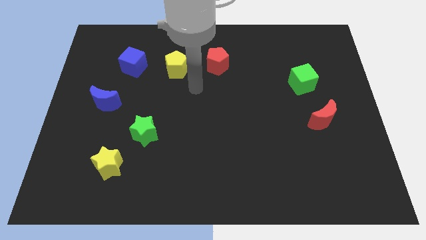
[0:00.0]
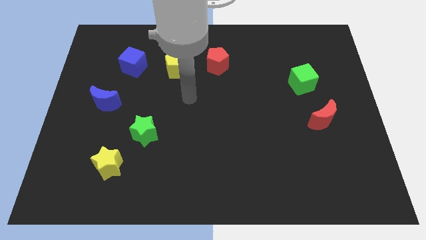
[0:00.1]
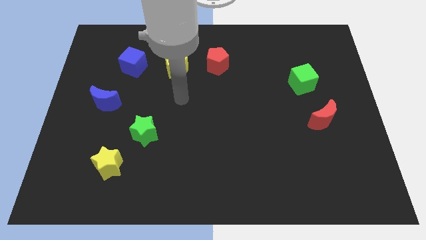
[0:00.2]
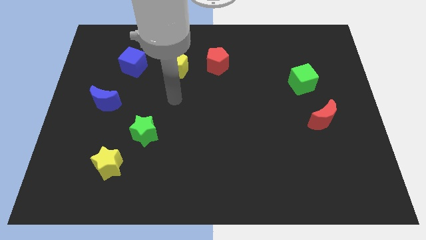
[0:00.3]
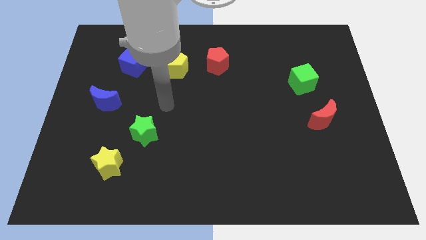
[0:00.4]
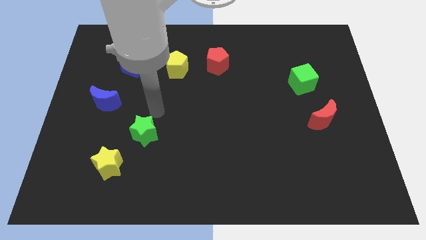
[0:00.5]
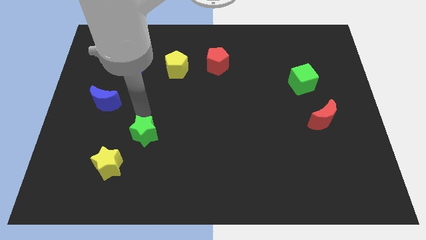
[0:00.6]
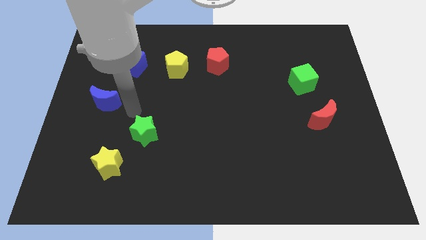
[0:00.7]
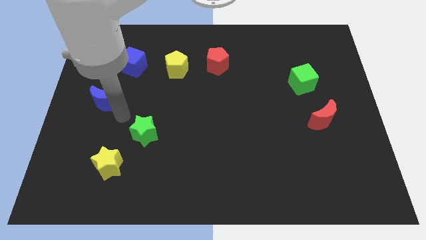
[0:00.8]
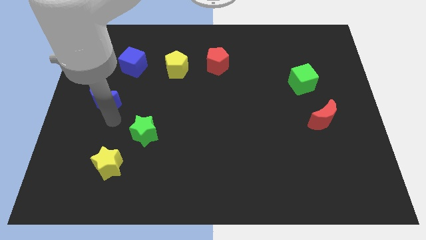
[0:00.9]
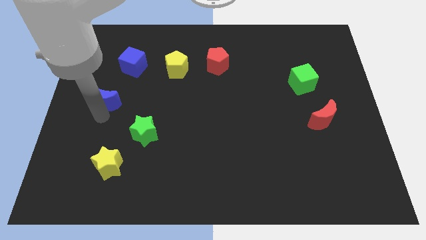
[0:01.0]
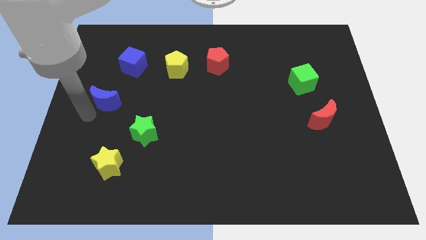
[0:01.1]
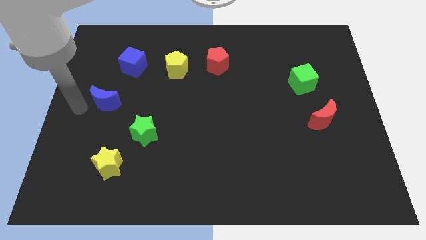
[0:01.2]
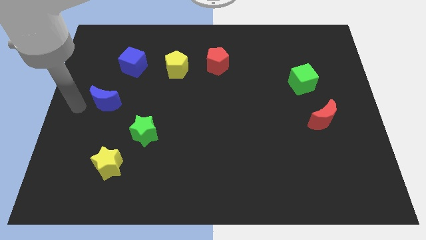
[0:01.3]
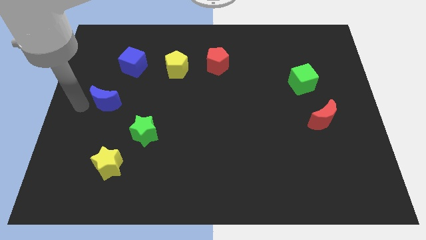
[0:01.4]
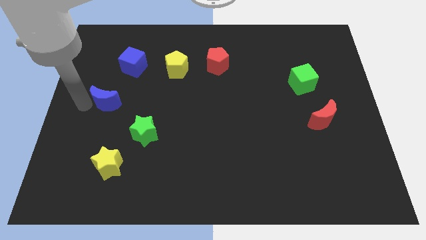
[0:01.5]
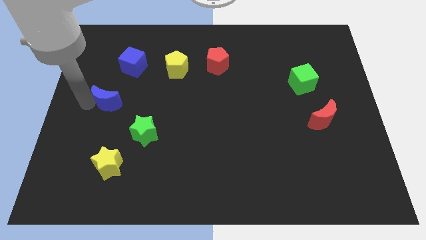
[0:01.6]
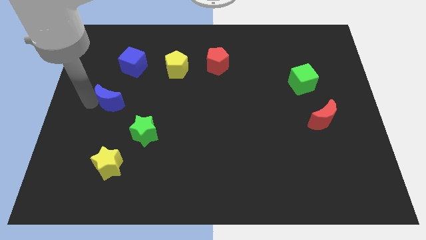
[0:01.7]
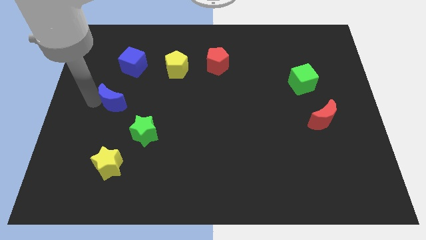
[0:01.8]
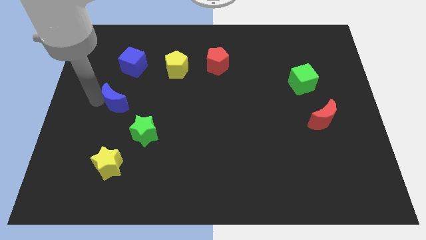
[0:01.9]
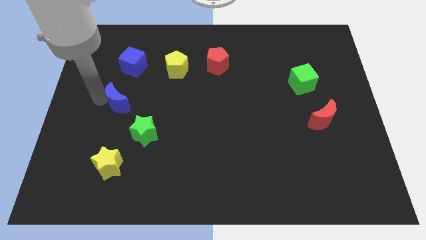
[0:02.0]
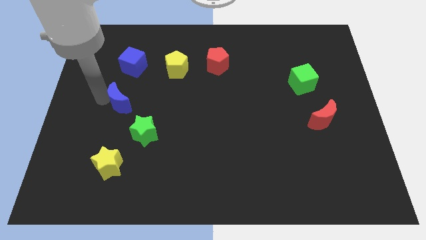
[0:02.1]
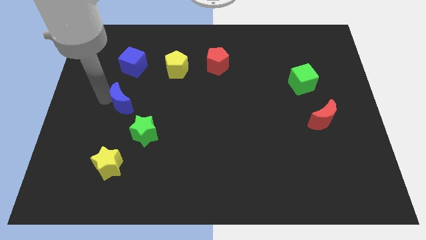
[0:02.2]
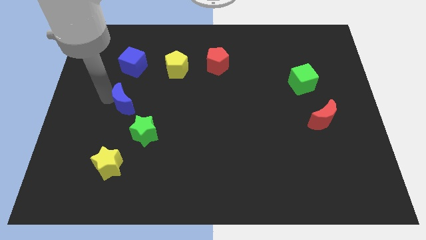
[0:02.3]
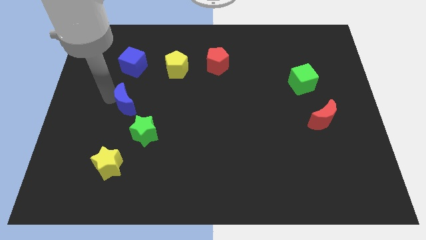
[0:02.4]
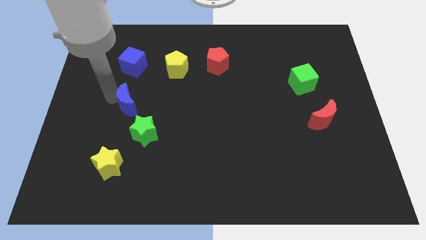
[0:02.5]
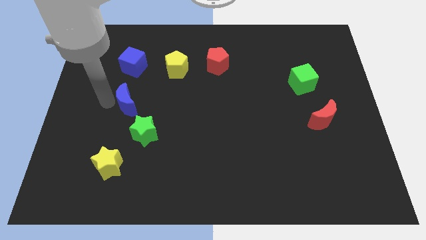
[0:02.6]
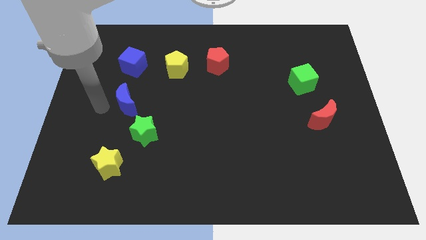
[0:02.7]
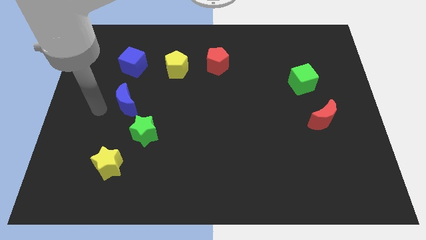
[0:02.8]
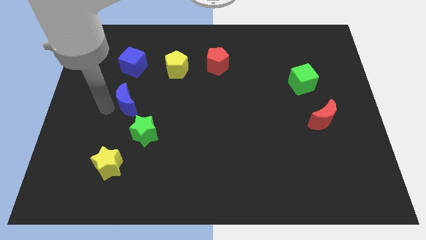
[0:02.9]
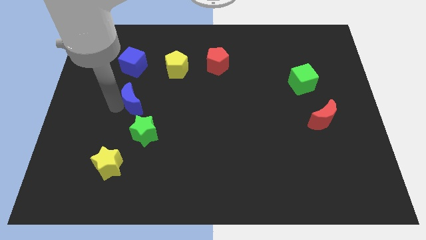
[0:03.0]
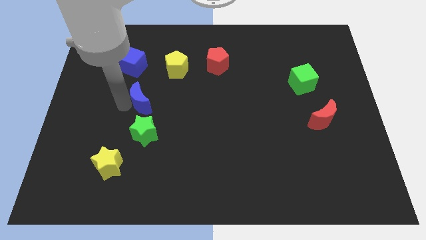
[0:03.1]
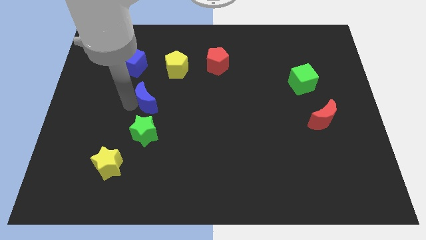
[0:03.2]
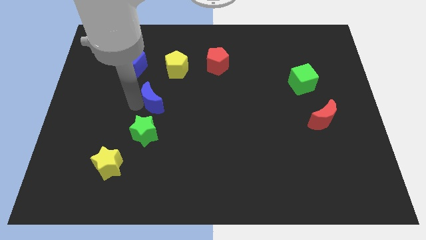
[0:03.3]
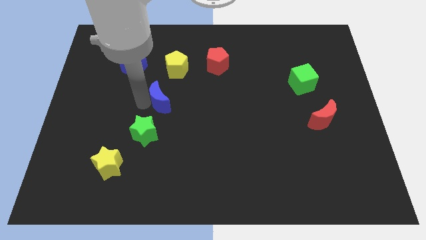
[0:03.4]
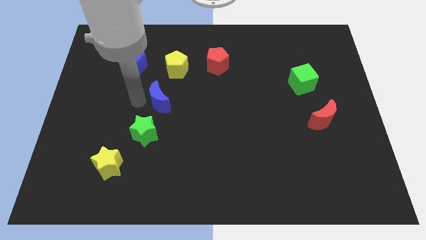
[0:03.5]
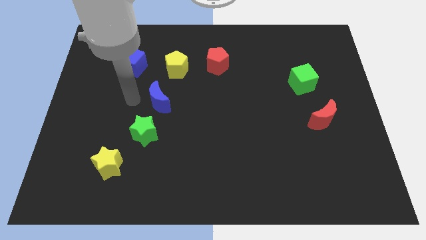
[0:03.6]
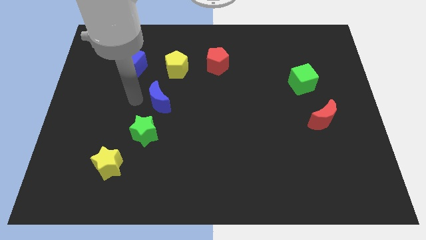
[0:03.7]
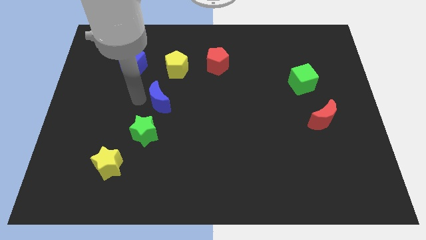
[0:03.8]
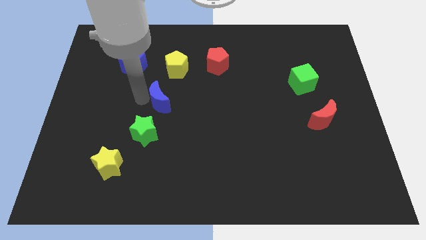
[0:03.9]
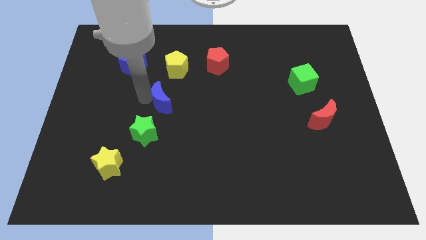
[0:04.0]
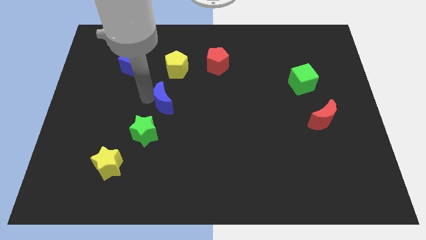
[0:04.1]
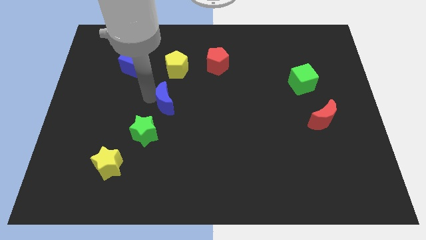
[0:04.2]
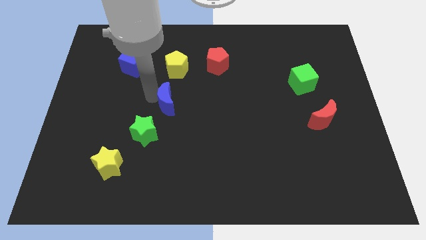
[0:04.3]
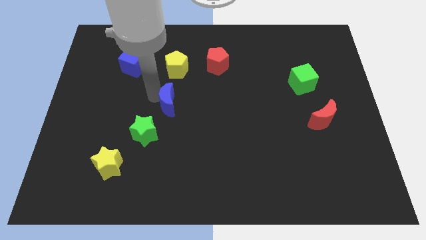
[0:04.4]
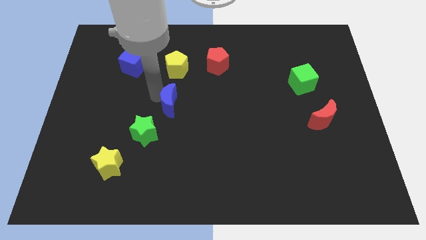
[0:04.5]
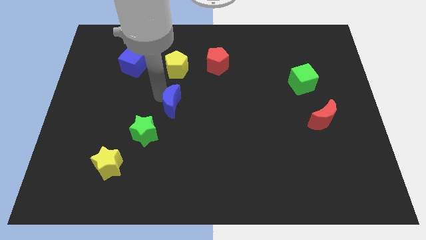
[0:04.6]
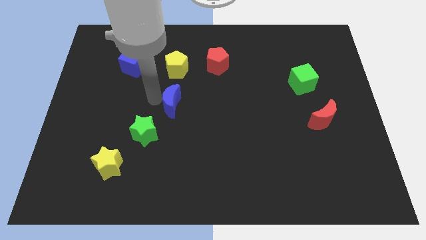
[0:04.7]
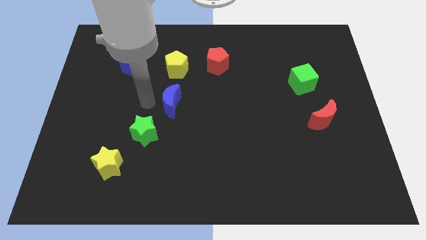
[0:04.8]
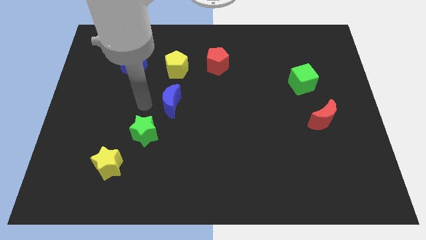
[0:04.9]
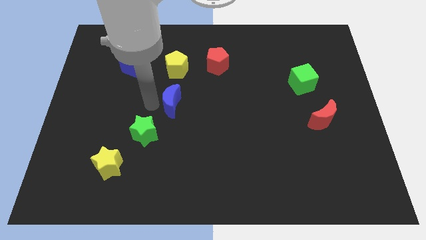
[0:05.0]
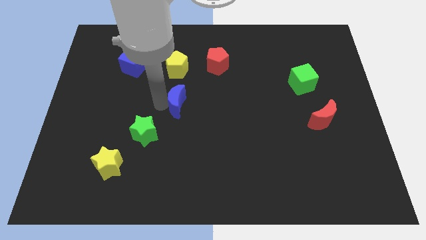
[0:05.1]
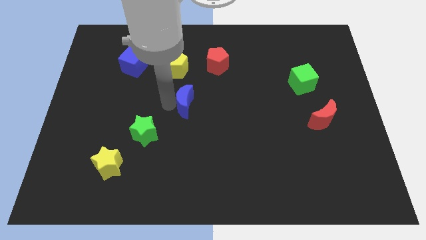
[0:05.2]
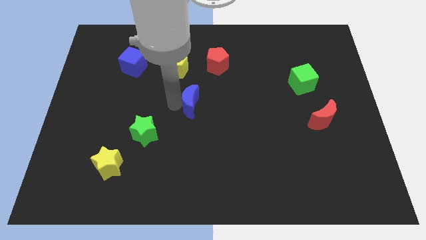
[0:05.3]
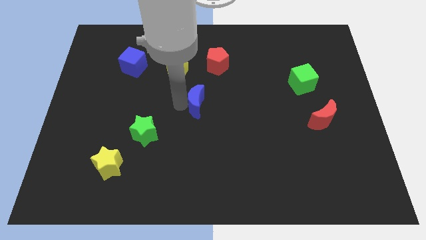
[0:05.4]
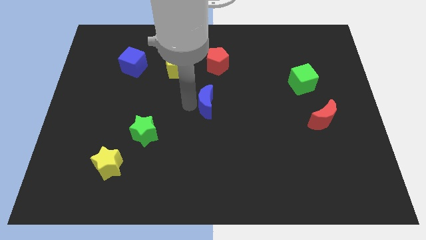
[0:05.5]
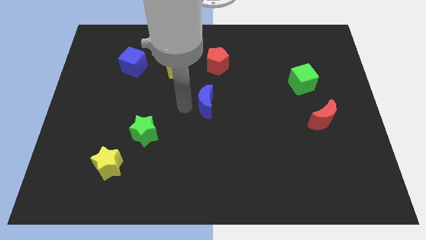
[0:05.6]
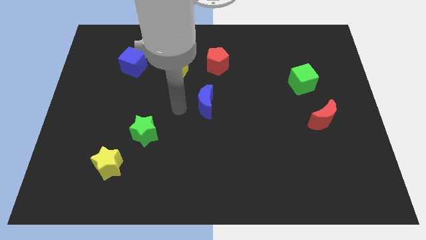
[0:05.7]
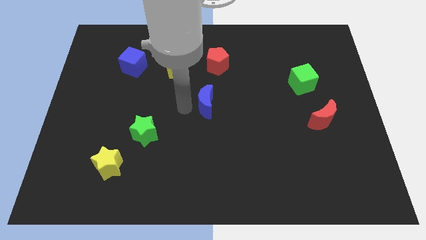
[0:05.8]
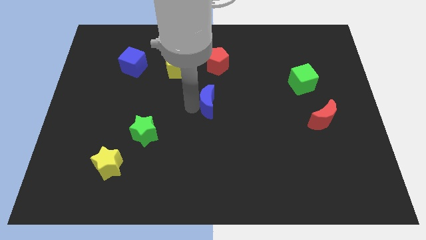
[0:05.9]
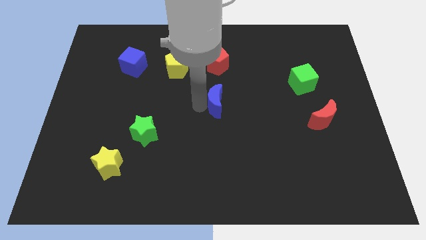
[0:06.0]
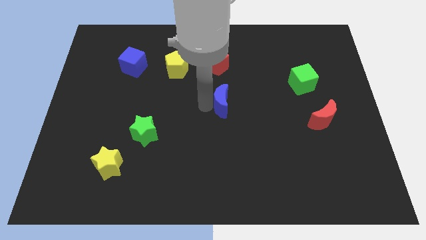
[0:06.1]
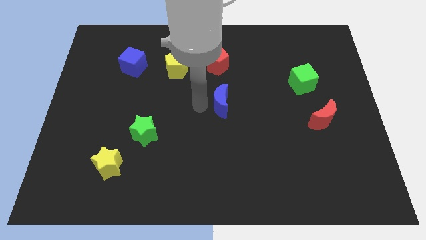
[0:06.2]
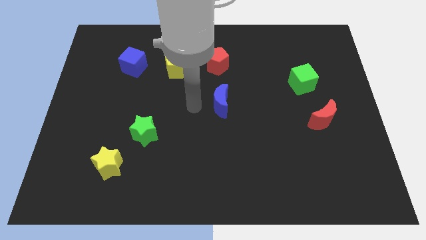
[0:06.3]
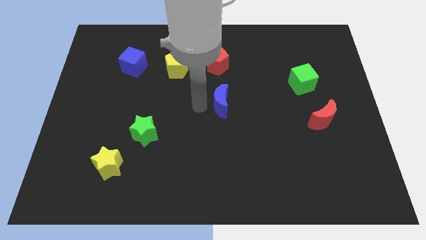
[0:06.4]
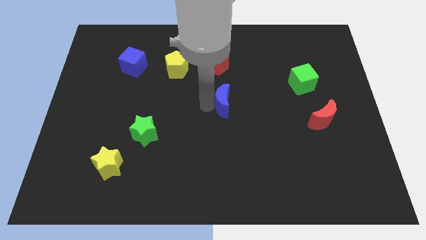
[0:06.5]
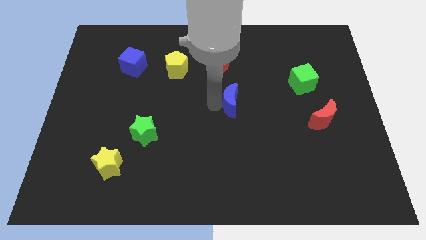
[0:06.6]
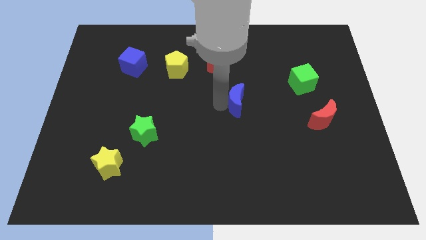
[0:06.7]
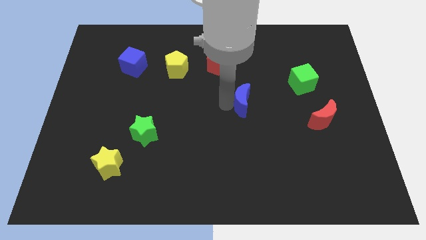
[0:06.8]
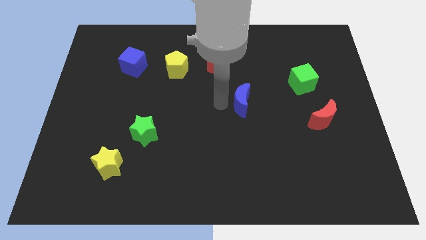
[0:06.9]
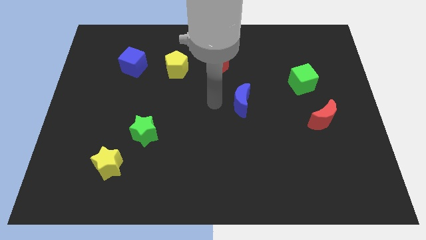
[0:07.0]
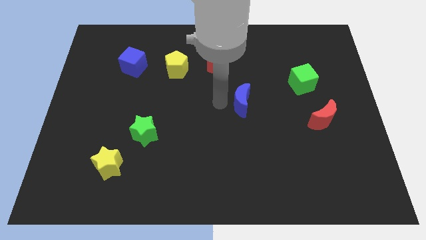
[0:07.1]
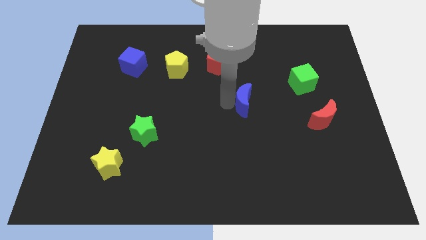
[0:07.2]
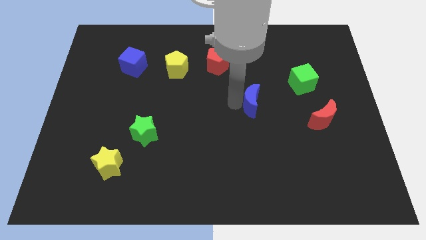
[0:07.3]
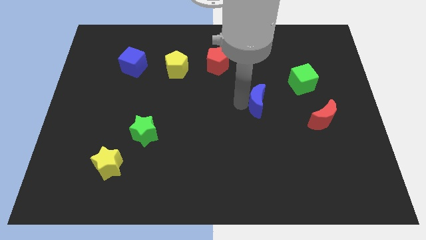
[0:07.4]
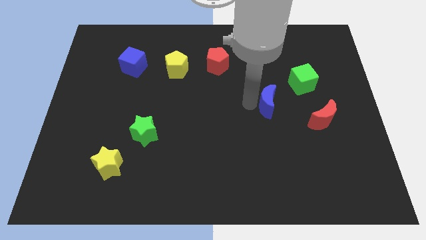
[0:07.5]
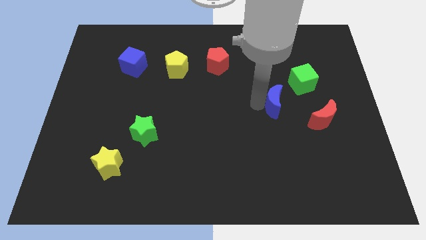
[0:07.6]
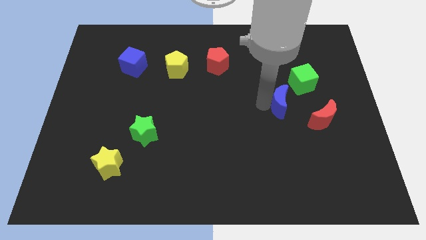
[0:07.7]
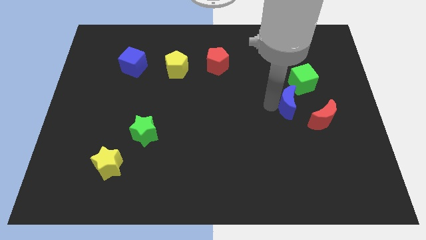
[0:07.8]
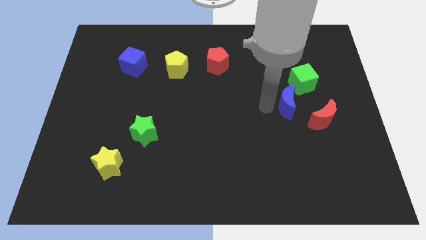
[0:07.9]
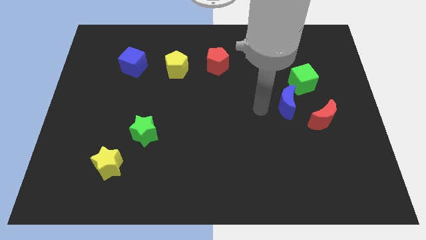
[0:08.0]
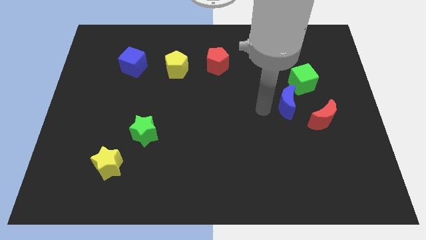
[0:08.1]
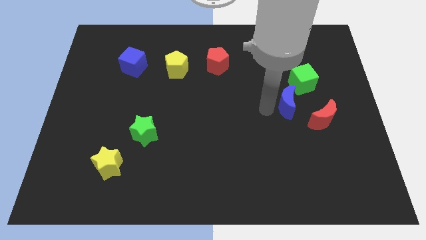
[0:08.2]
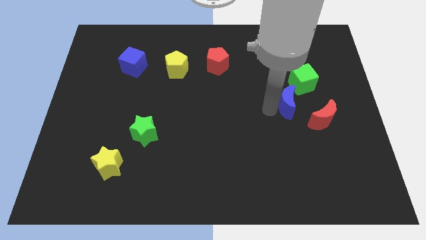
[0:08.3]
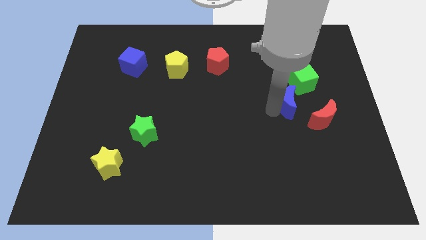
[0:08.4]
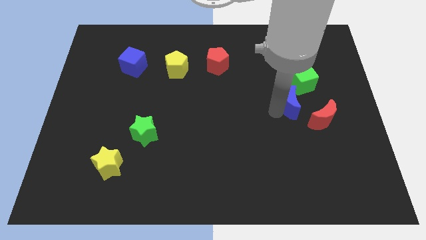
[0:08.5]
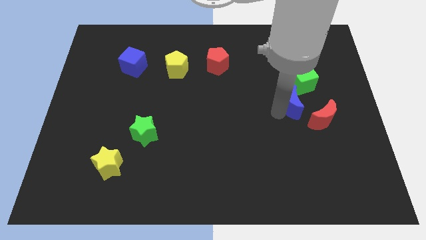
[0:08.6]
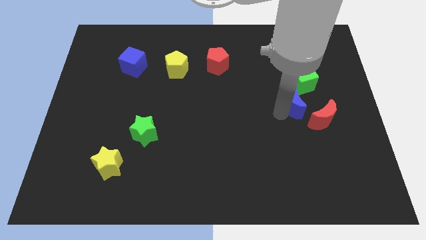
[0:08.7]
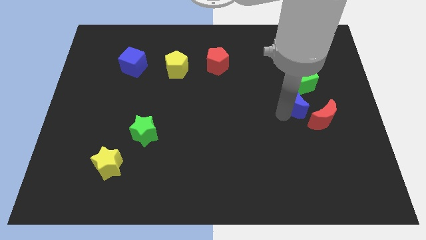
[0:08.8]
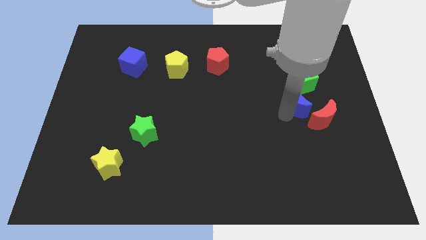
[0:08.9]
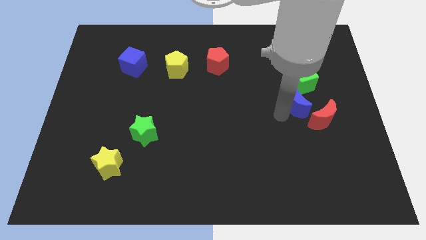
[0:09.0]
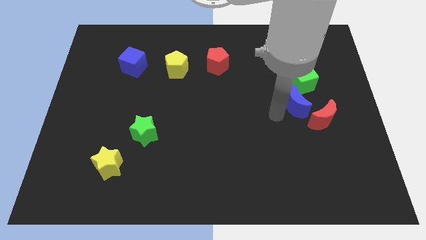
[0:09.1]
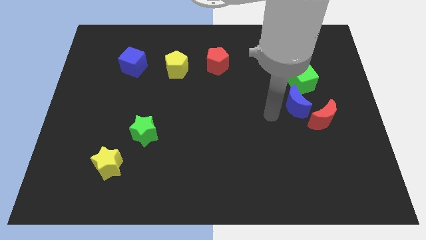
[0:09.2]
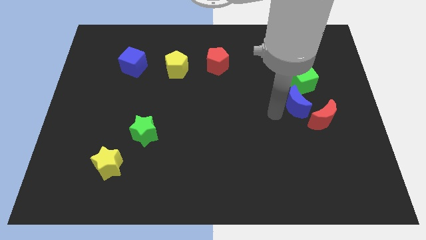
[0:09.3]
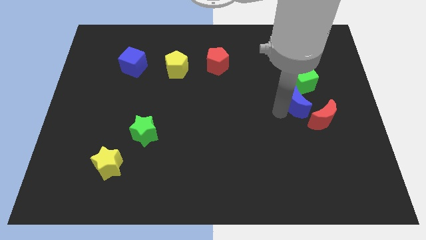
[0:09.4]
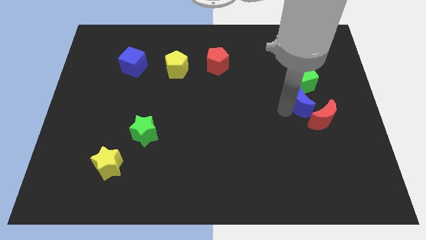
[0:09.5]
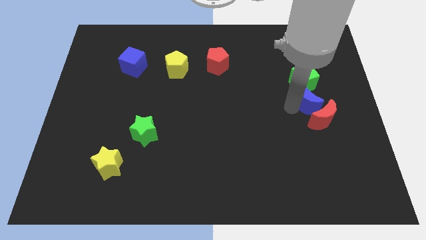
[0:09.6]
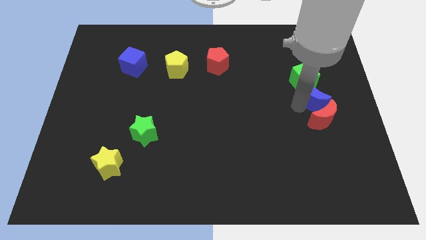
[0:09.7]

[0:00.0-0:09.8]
put the blue moon to the bottom right side of the green cube
